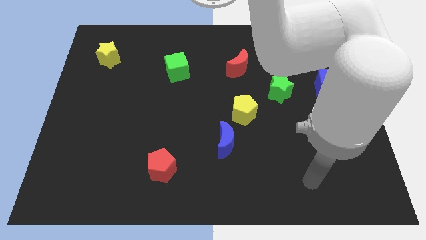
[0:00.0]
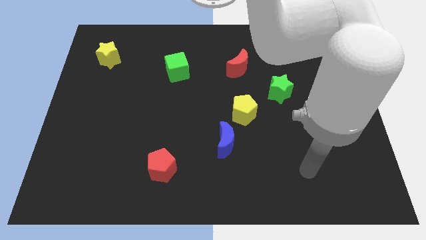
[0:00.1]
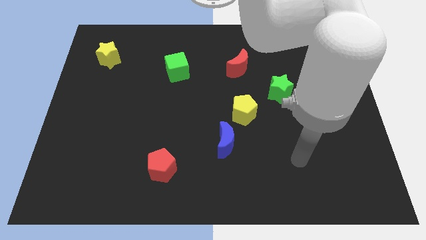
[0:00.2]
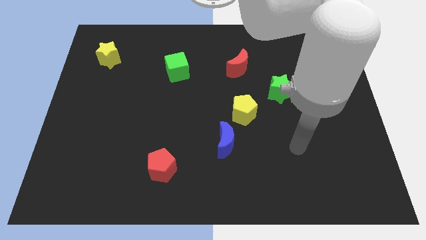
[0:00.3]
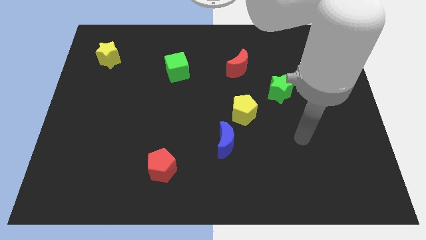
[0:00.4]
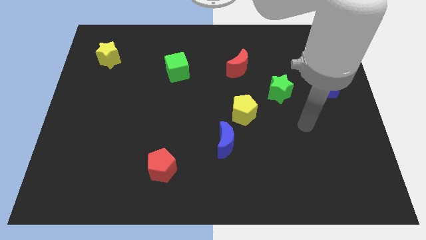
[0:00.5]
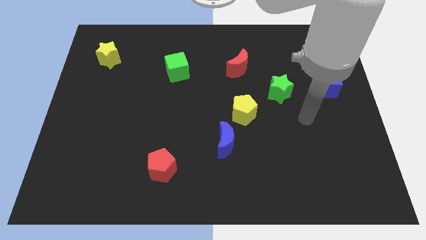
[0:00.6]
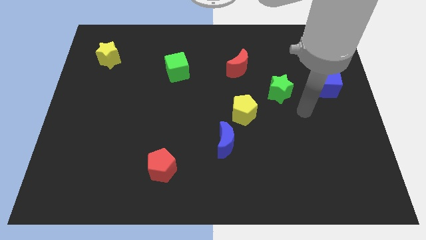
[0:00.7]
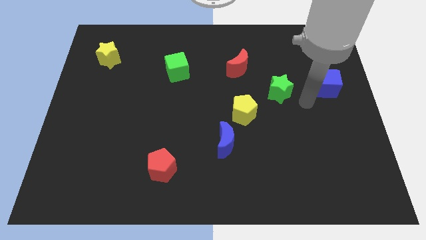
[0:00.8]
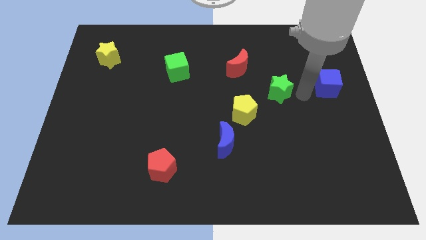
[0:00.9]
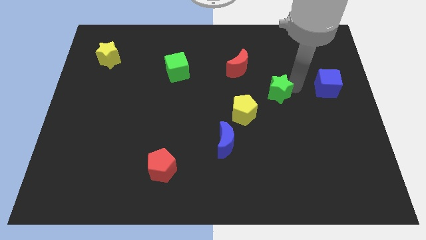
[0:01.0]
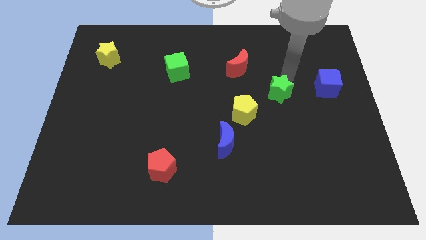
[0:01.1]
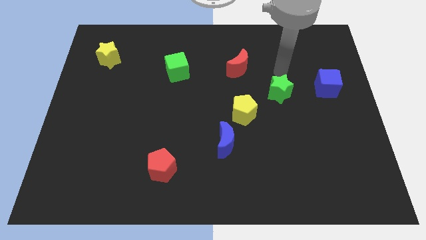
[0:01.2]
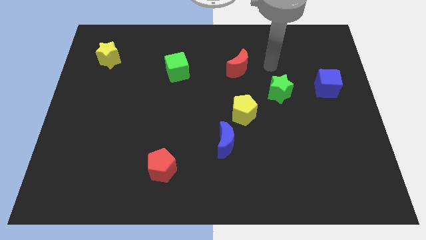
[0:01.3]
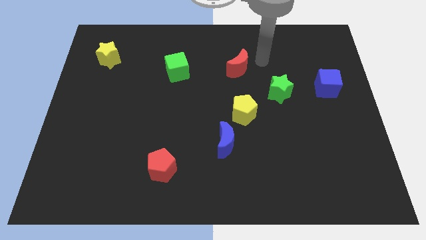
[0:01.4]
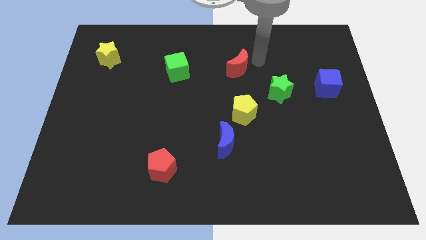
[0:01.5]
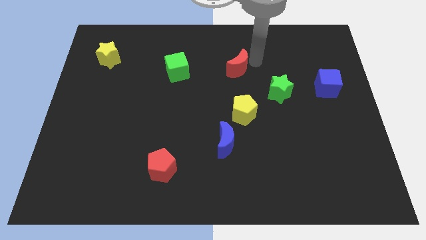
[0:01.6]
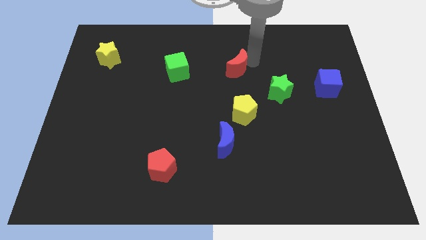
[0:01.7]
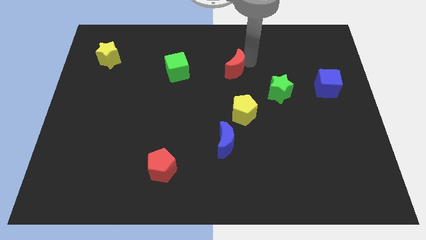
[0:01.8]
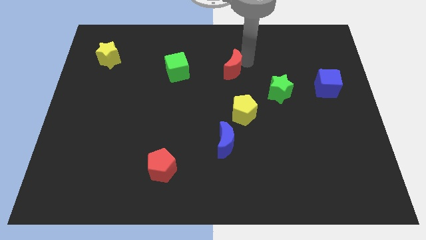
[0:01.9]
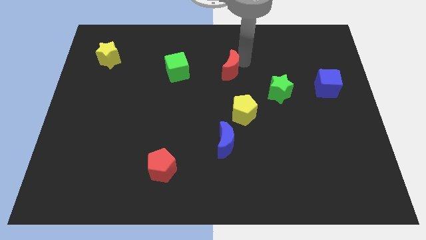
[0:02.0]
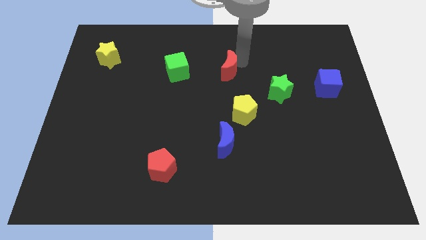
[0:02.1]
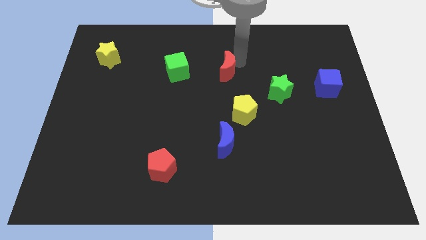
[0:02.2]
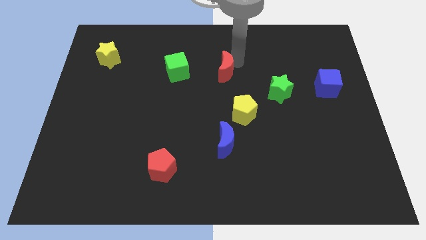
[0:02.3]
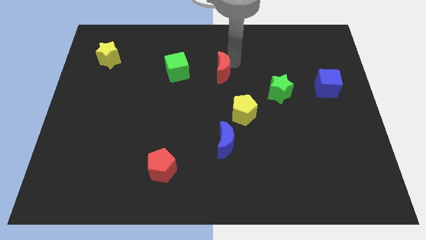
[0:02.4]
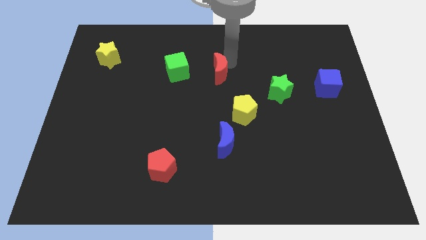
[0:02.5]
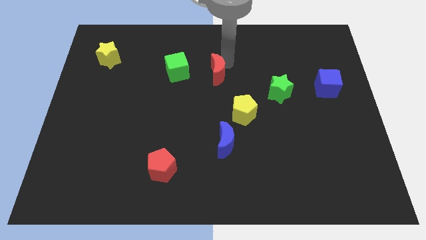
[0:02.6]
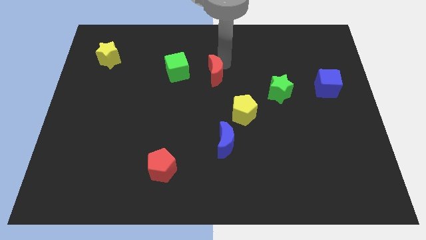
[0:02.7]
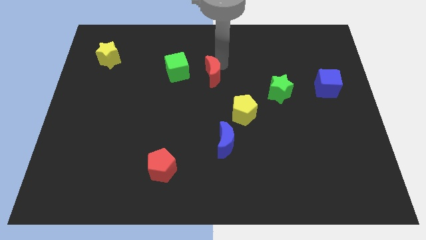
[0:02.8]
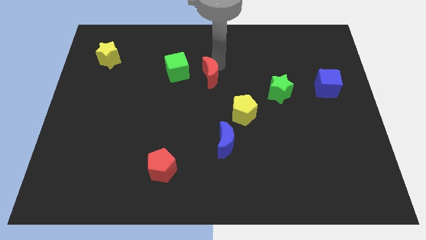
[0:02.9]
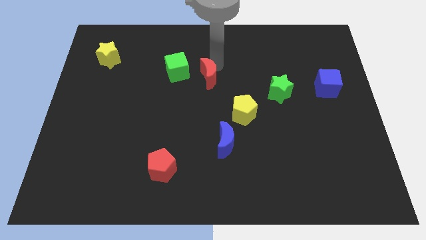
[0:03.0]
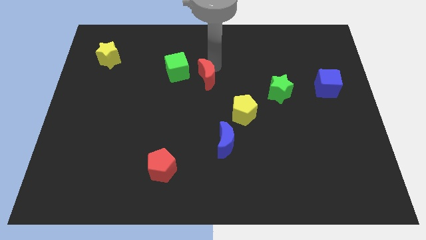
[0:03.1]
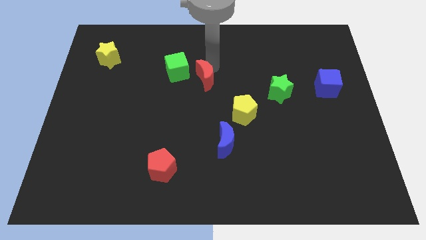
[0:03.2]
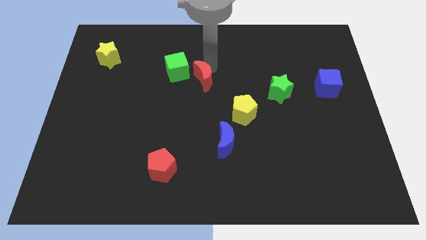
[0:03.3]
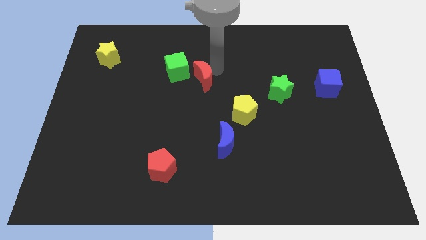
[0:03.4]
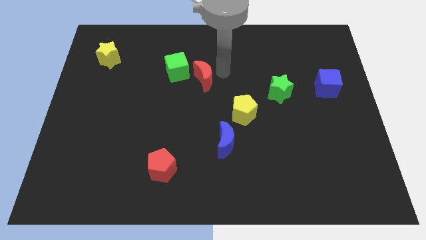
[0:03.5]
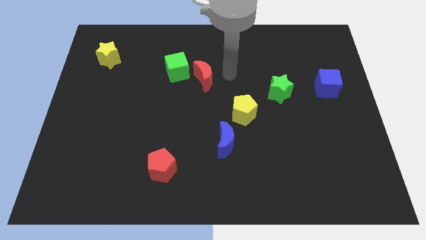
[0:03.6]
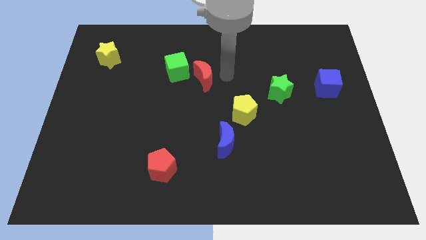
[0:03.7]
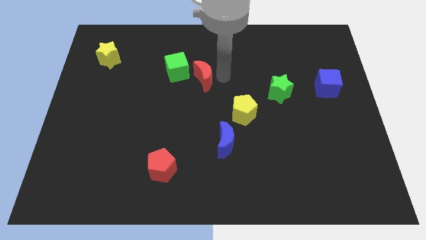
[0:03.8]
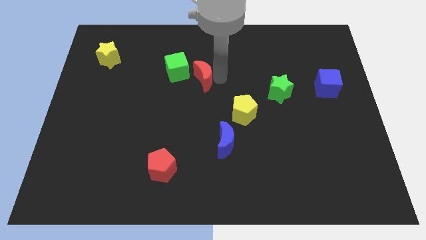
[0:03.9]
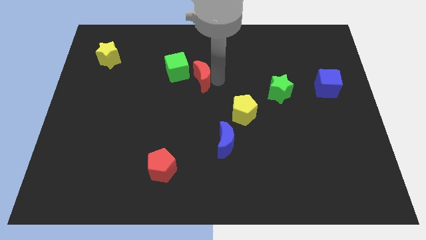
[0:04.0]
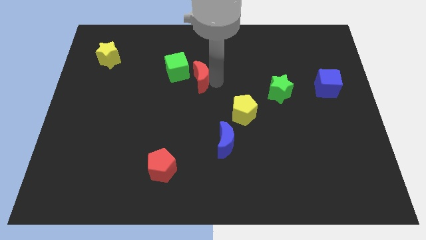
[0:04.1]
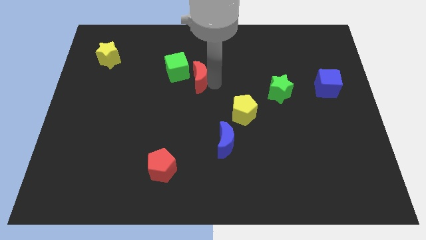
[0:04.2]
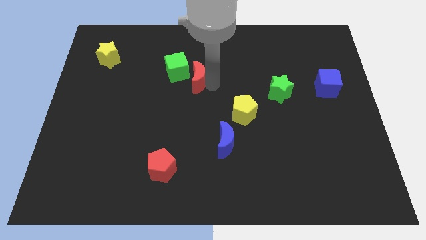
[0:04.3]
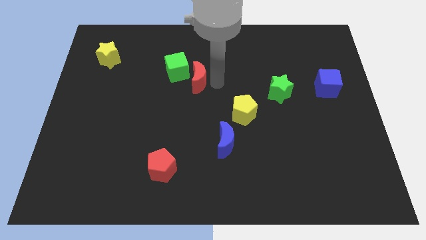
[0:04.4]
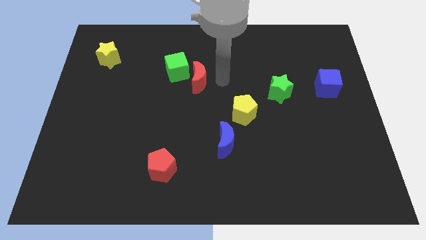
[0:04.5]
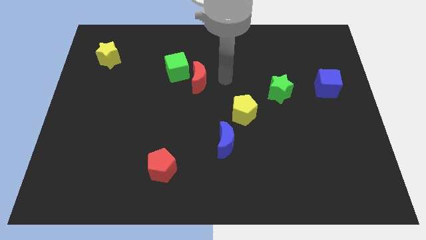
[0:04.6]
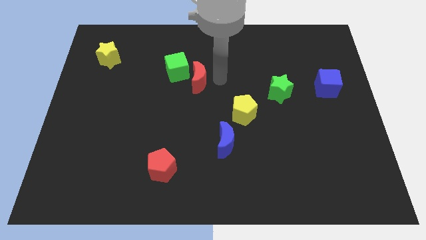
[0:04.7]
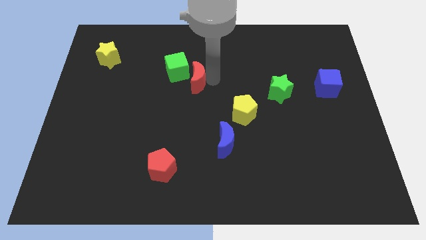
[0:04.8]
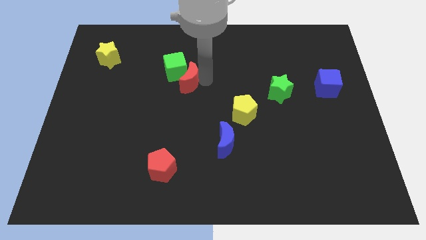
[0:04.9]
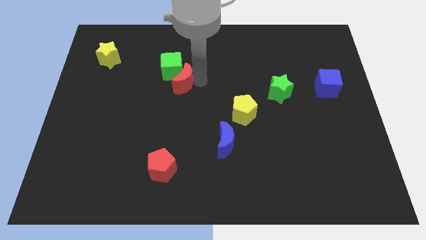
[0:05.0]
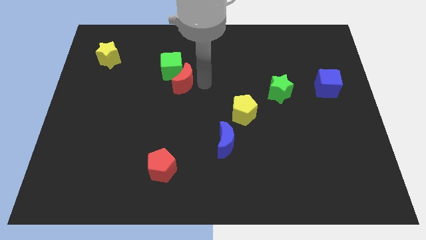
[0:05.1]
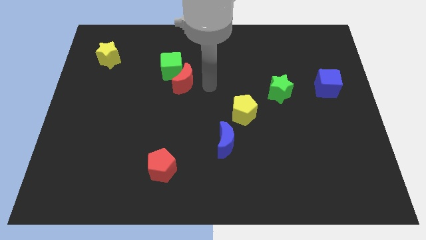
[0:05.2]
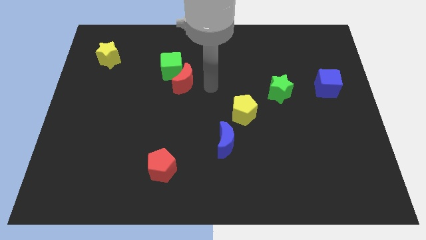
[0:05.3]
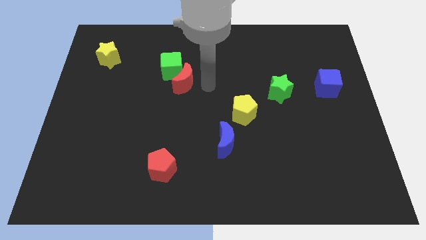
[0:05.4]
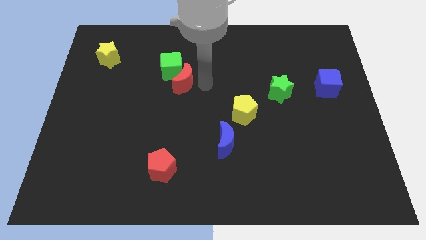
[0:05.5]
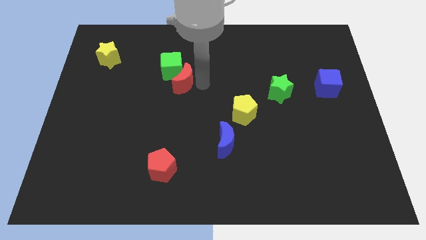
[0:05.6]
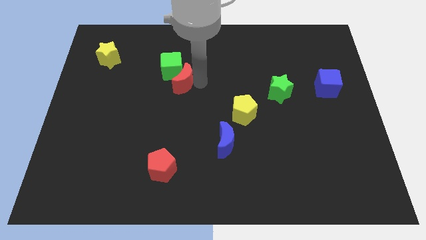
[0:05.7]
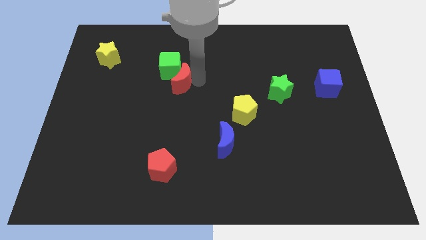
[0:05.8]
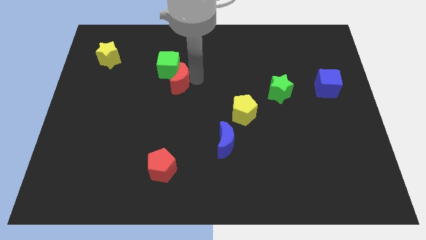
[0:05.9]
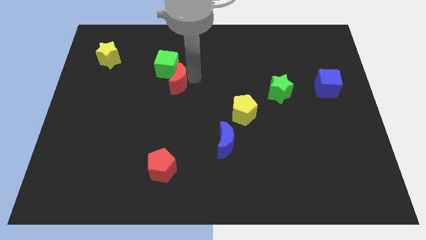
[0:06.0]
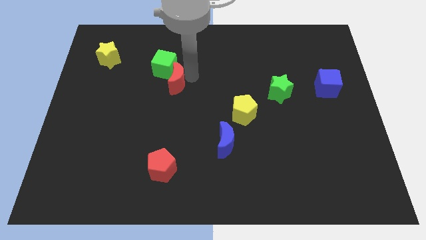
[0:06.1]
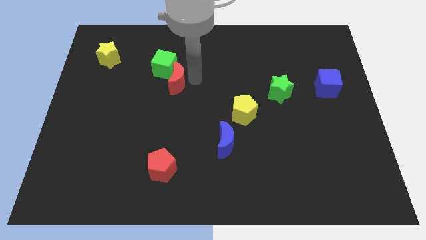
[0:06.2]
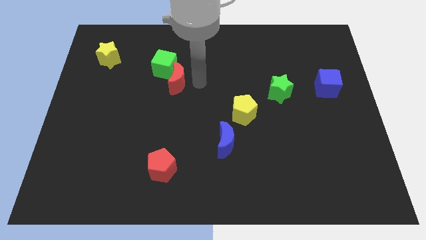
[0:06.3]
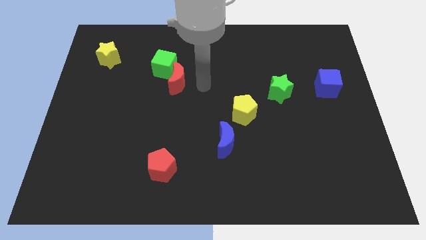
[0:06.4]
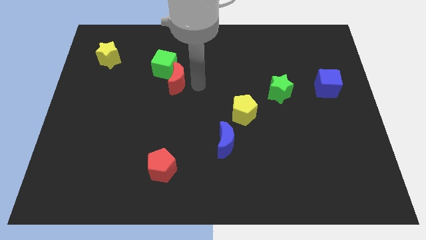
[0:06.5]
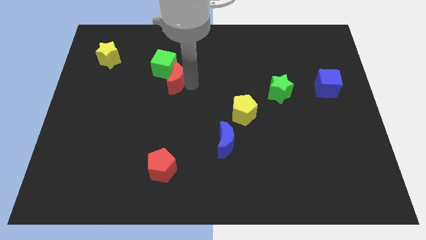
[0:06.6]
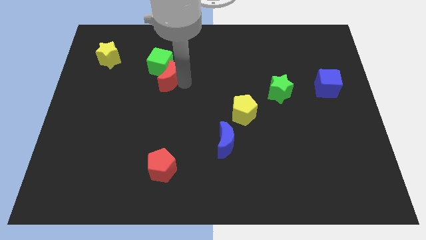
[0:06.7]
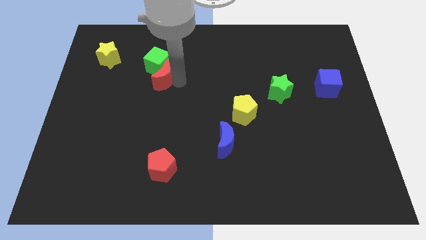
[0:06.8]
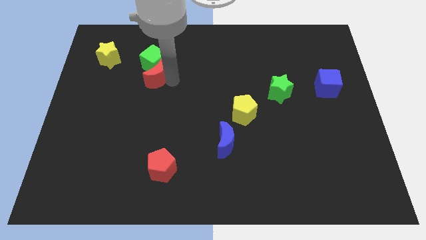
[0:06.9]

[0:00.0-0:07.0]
move the red moon to the left

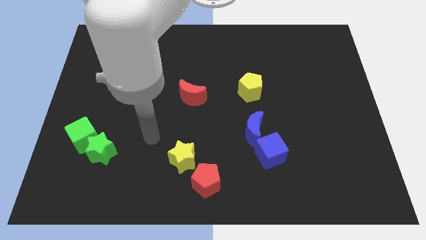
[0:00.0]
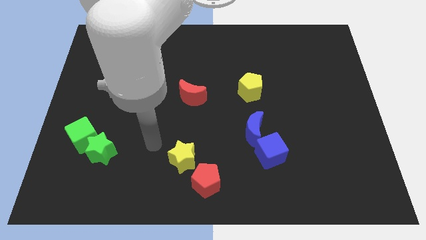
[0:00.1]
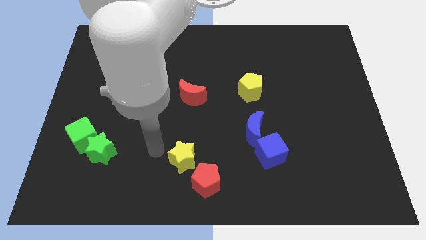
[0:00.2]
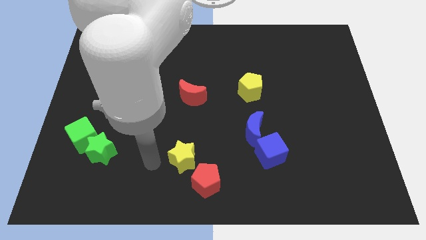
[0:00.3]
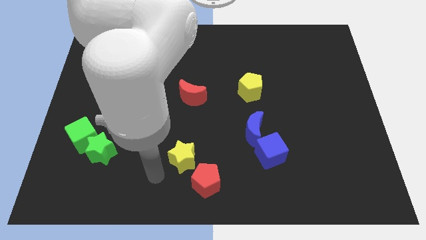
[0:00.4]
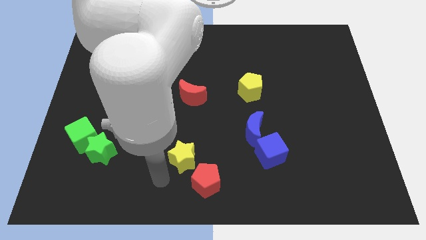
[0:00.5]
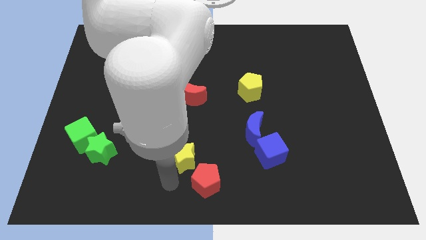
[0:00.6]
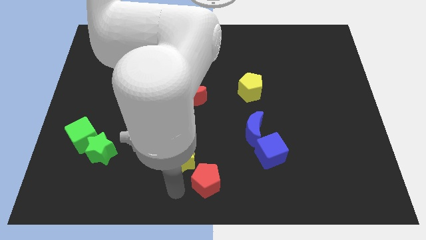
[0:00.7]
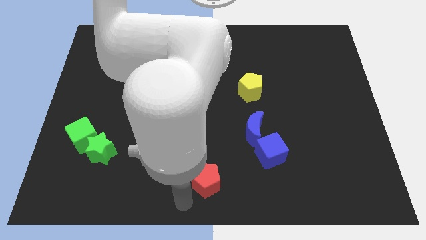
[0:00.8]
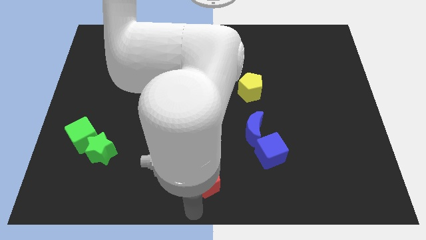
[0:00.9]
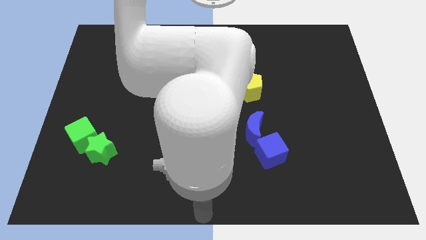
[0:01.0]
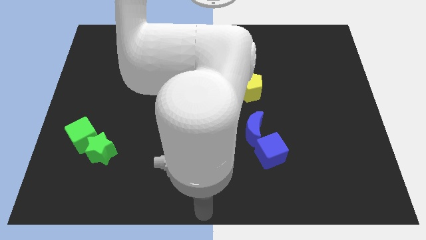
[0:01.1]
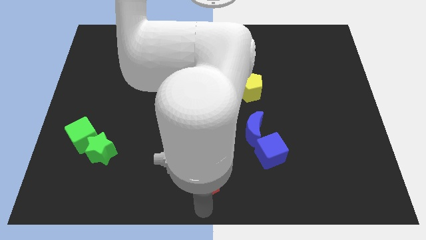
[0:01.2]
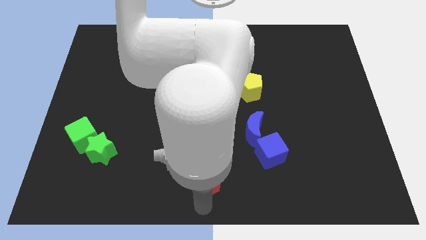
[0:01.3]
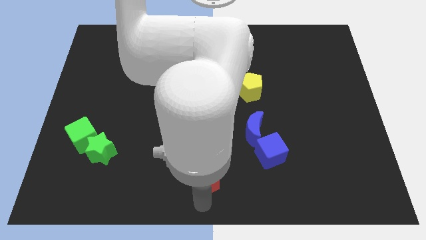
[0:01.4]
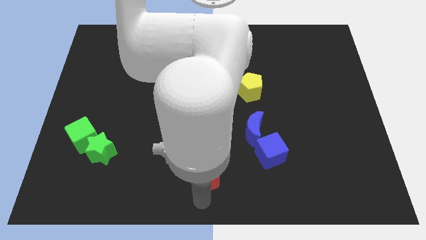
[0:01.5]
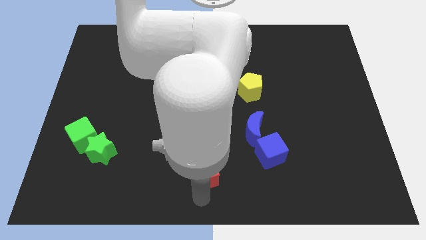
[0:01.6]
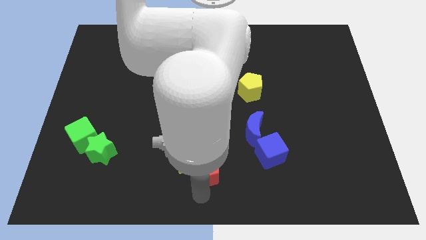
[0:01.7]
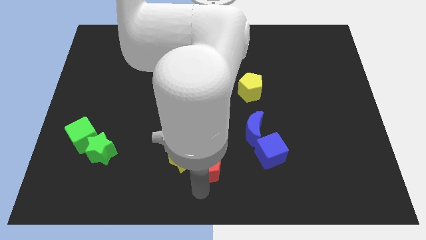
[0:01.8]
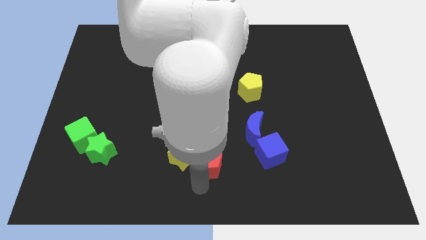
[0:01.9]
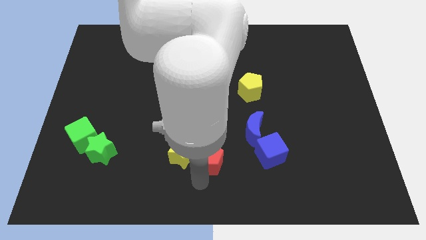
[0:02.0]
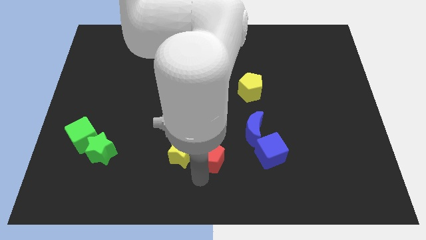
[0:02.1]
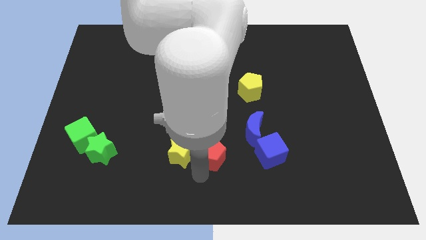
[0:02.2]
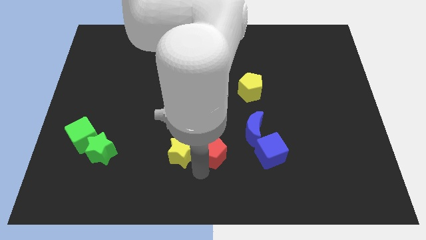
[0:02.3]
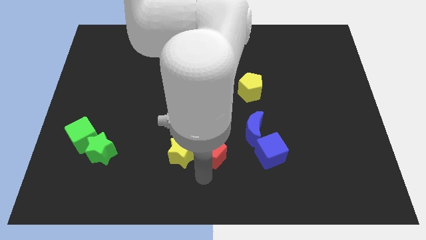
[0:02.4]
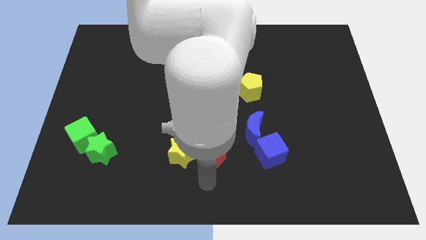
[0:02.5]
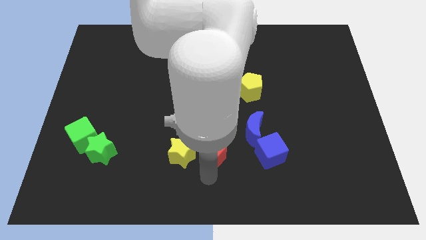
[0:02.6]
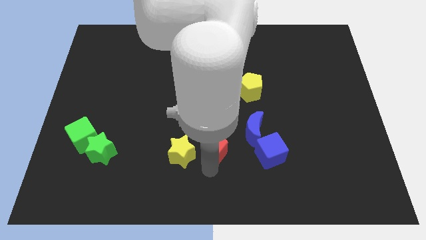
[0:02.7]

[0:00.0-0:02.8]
slightly move the red pentagon up
